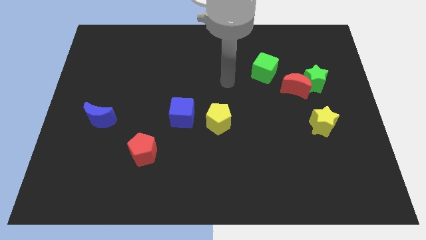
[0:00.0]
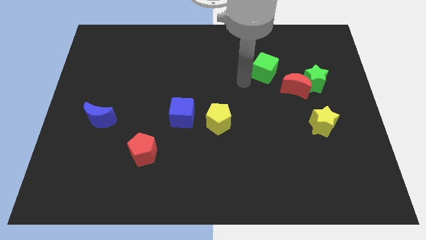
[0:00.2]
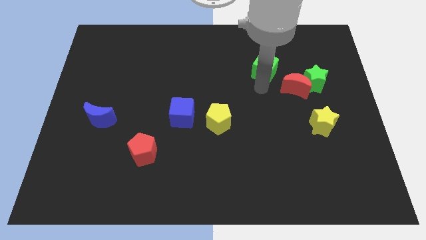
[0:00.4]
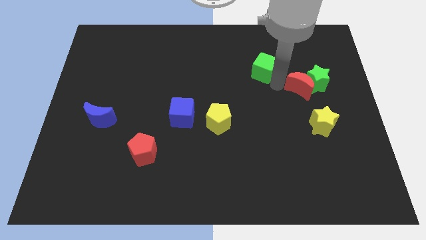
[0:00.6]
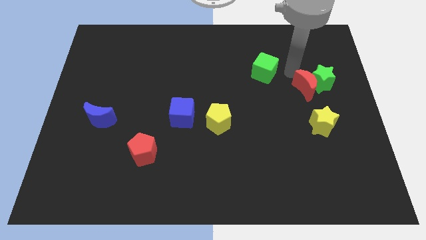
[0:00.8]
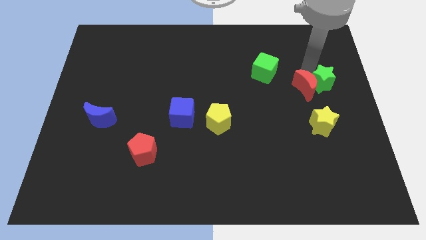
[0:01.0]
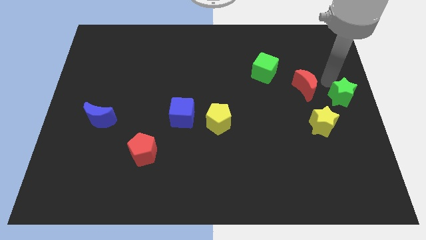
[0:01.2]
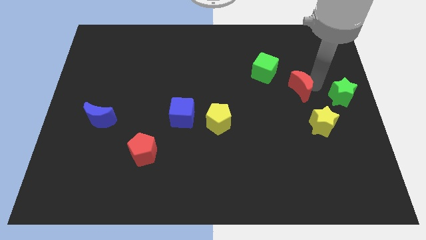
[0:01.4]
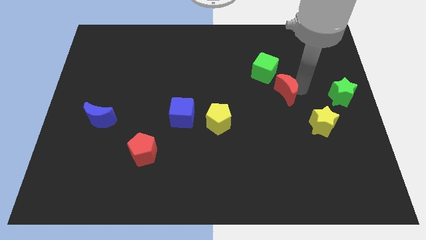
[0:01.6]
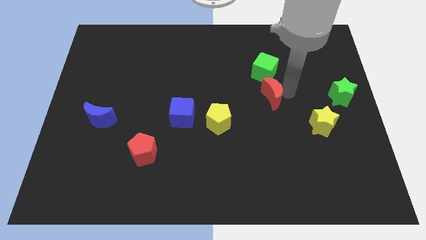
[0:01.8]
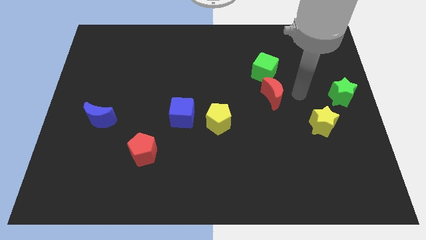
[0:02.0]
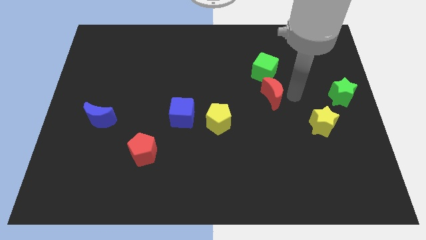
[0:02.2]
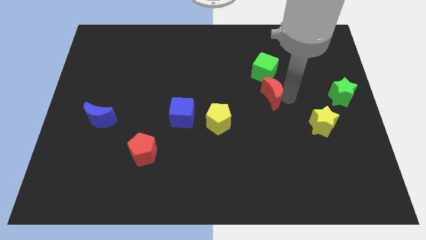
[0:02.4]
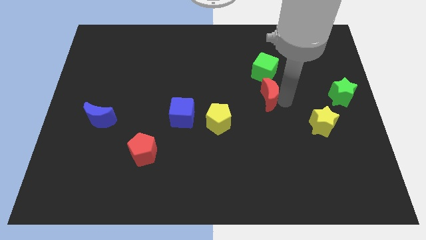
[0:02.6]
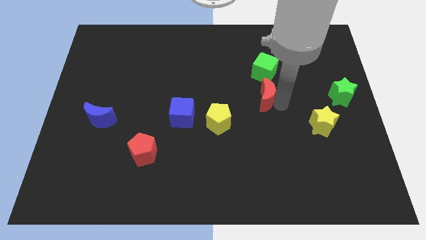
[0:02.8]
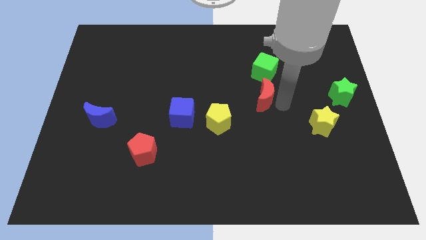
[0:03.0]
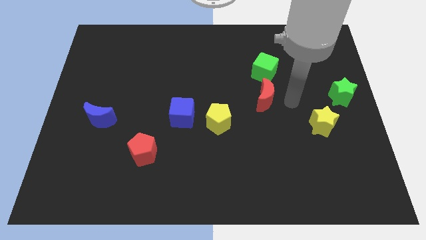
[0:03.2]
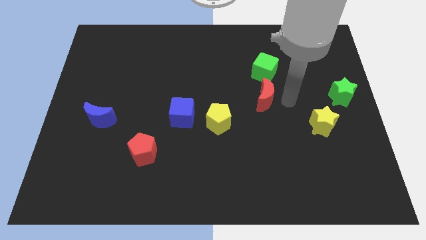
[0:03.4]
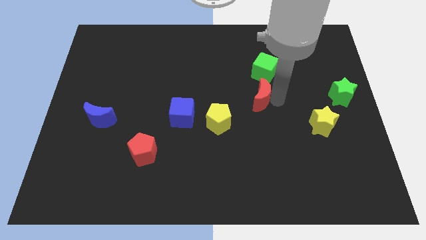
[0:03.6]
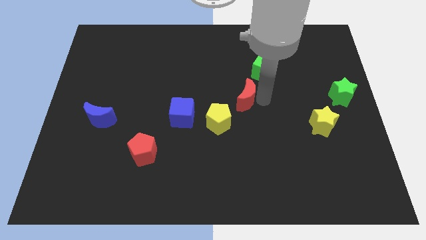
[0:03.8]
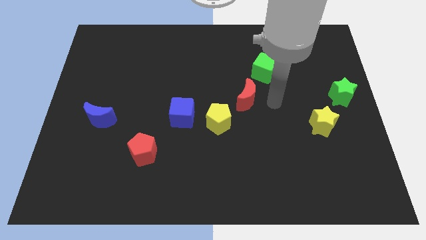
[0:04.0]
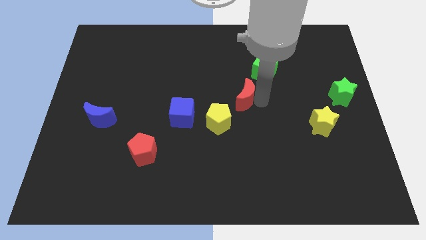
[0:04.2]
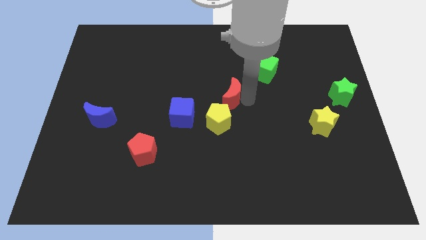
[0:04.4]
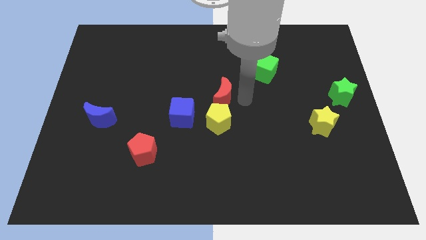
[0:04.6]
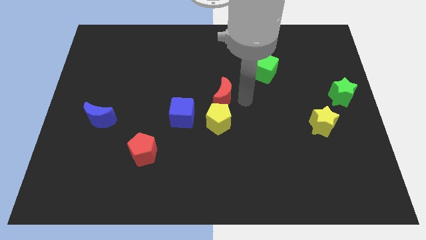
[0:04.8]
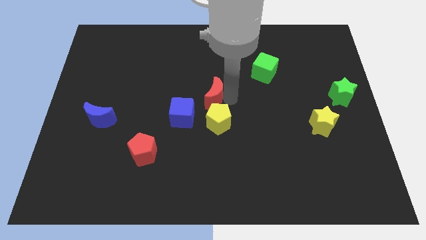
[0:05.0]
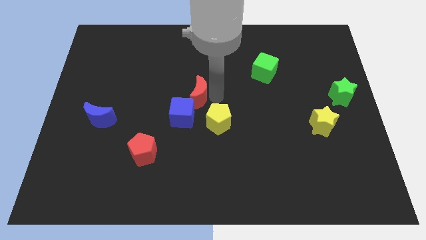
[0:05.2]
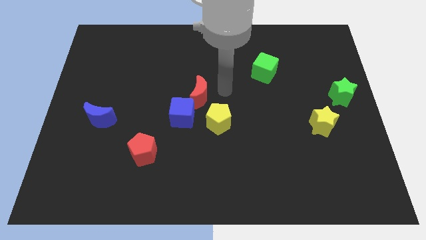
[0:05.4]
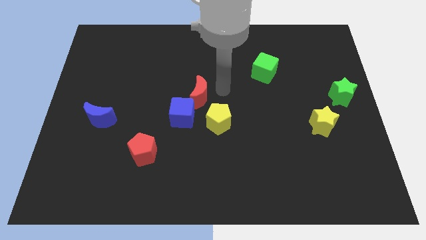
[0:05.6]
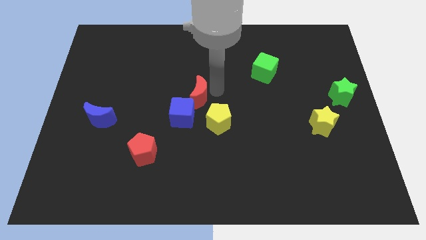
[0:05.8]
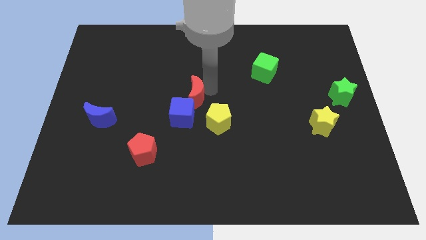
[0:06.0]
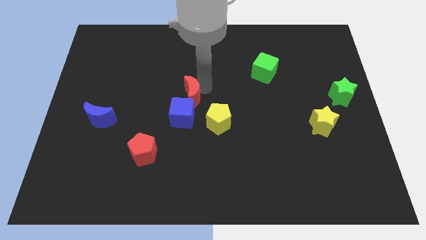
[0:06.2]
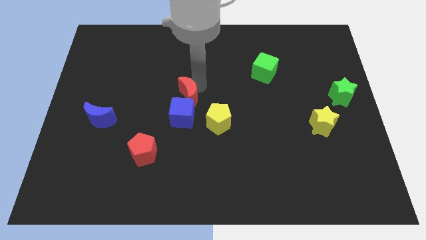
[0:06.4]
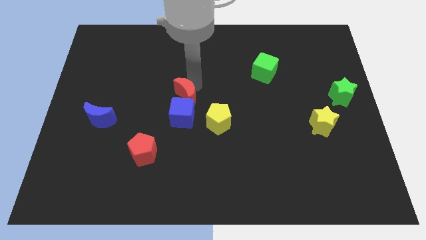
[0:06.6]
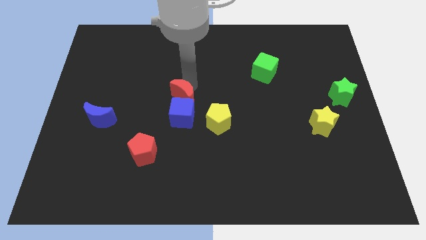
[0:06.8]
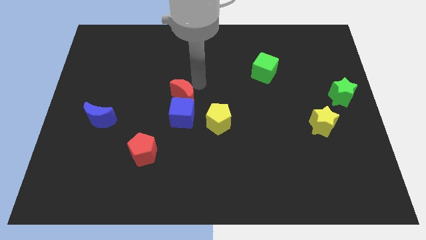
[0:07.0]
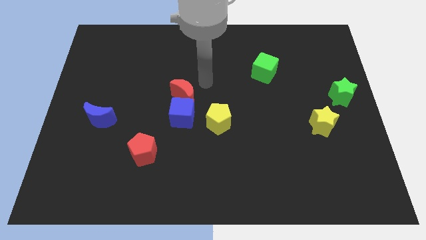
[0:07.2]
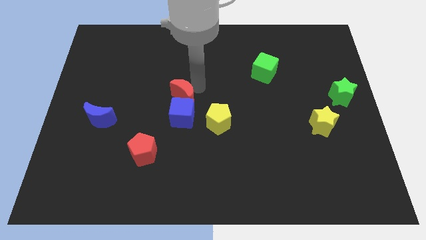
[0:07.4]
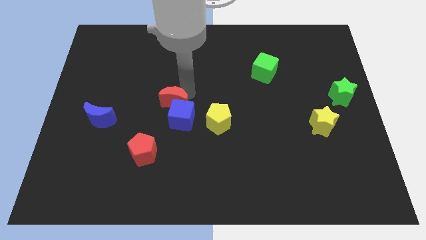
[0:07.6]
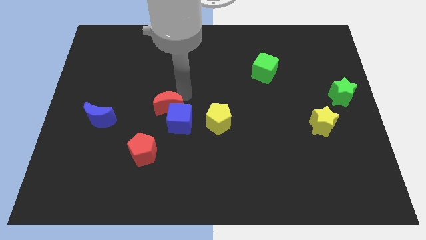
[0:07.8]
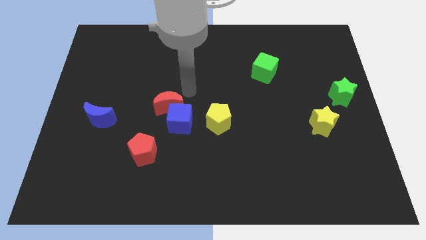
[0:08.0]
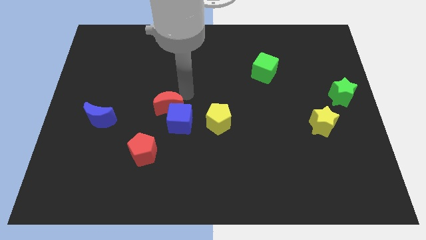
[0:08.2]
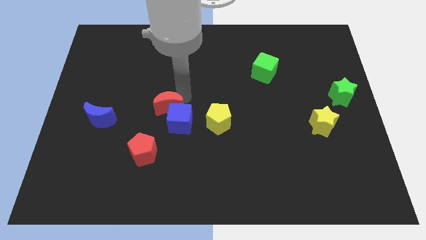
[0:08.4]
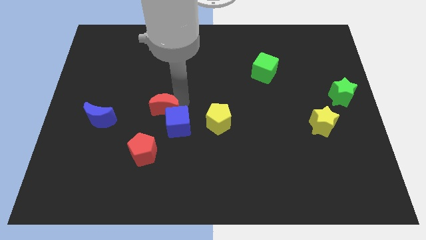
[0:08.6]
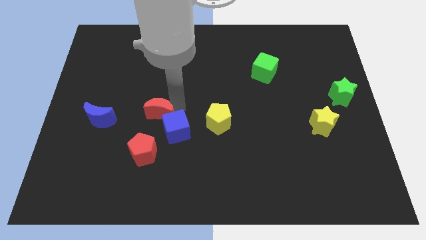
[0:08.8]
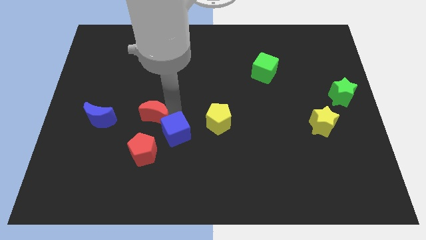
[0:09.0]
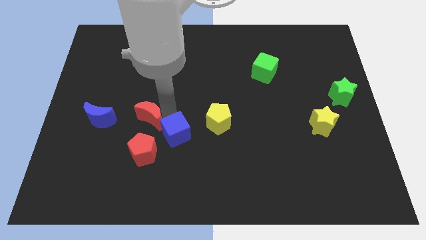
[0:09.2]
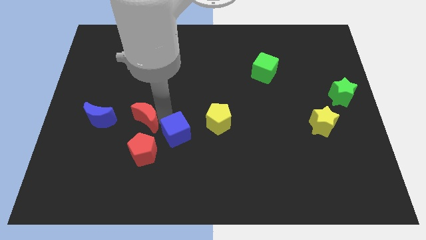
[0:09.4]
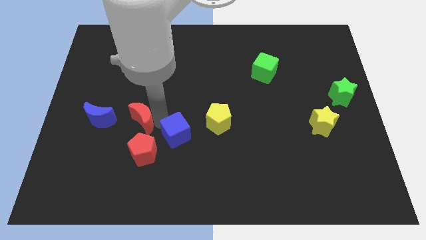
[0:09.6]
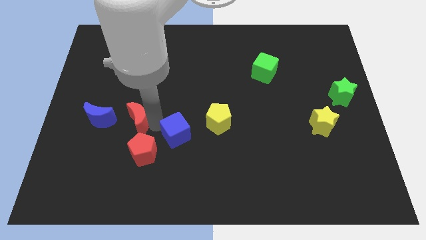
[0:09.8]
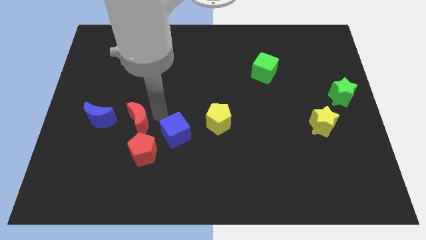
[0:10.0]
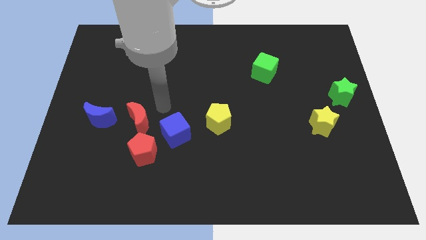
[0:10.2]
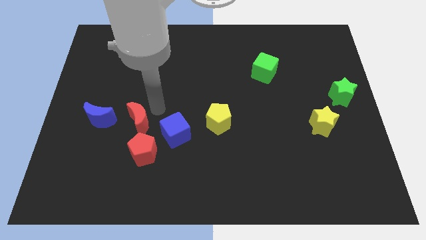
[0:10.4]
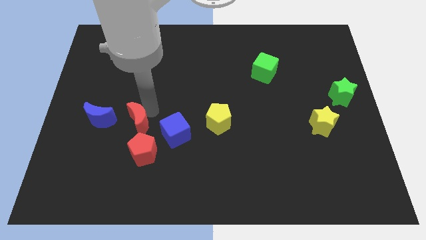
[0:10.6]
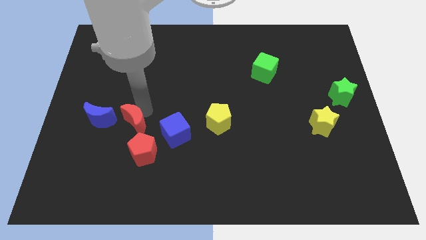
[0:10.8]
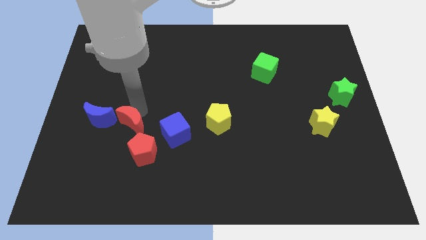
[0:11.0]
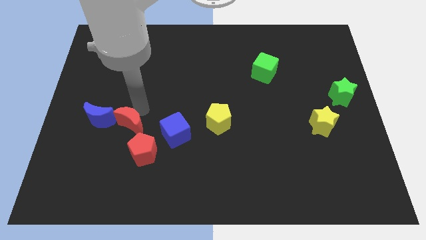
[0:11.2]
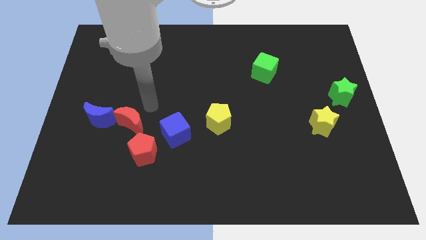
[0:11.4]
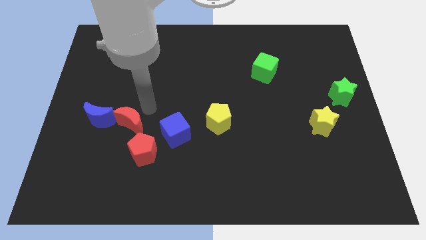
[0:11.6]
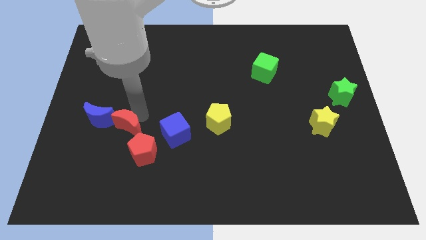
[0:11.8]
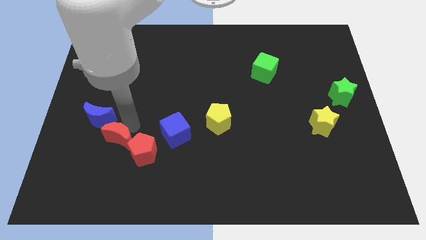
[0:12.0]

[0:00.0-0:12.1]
move the red moon just left of the red pentagon

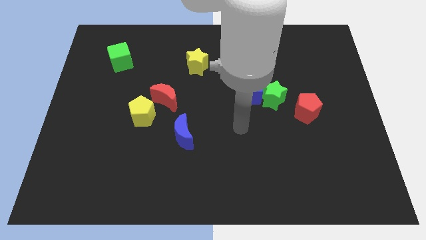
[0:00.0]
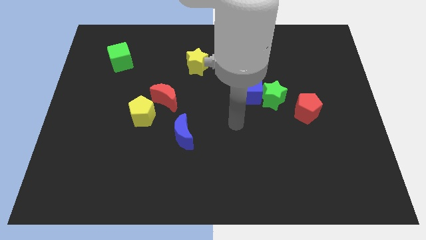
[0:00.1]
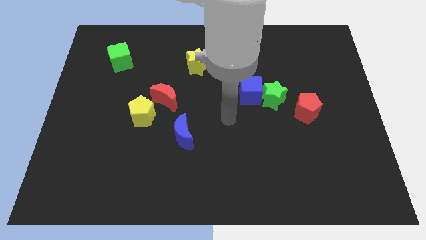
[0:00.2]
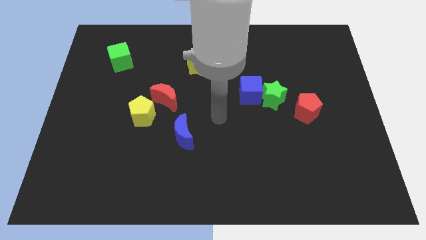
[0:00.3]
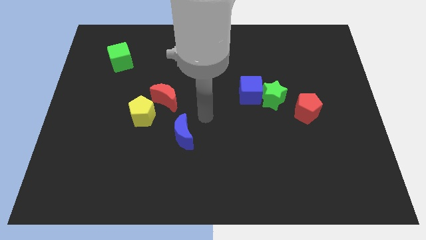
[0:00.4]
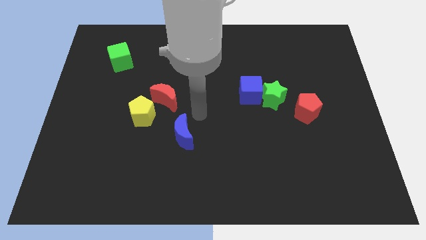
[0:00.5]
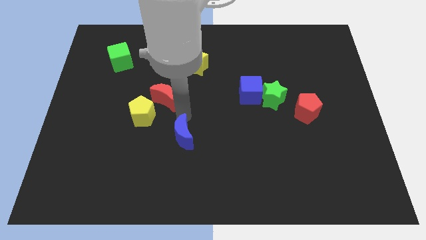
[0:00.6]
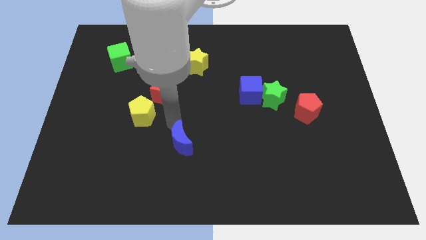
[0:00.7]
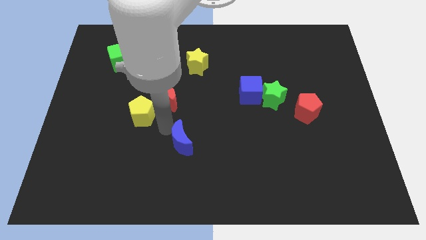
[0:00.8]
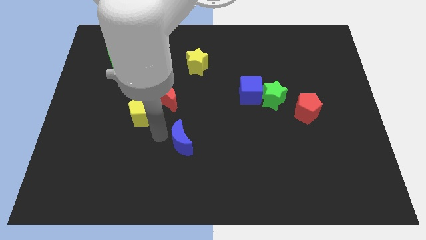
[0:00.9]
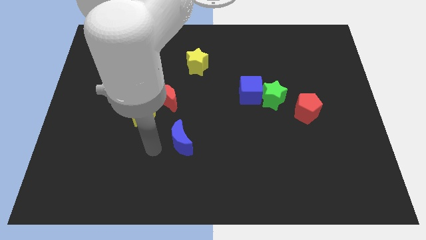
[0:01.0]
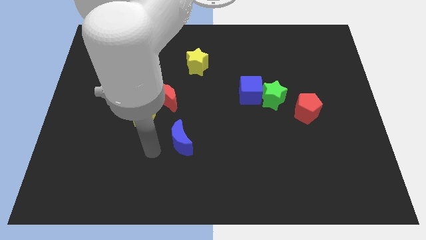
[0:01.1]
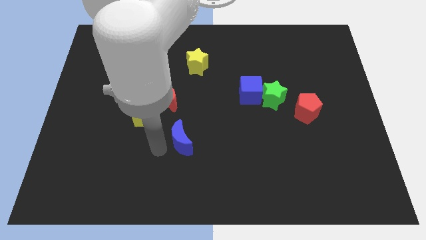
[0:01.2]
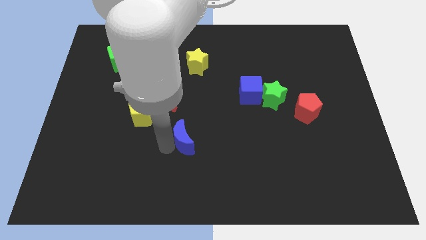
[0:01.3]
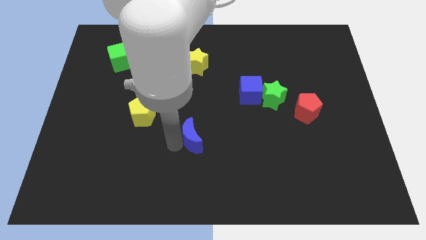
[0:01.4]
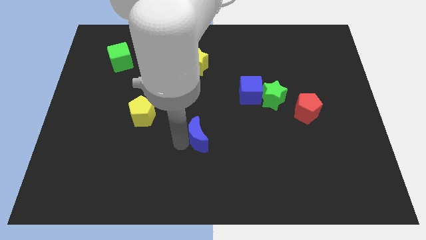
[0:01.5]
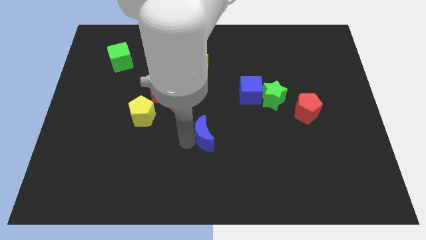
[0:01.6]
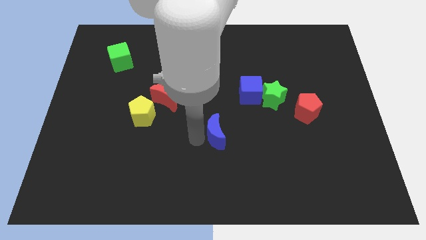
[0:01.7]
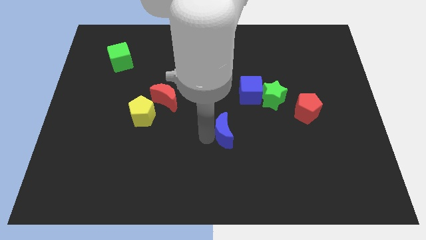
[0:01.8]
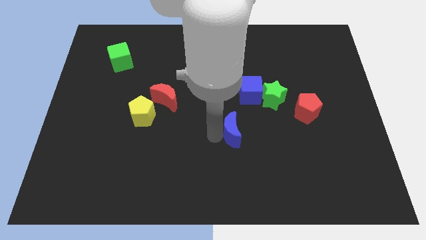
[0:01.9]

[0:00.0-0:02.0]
push the blue moon below the blue cube
